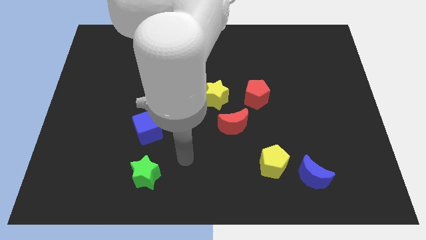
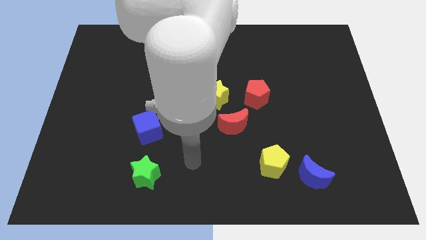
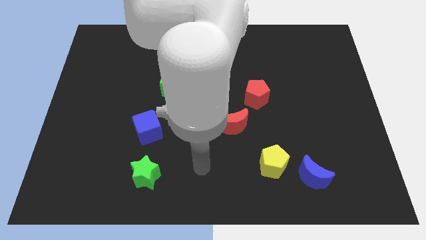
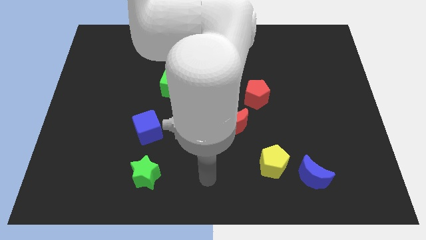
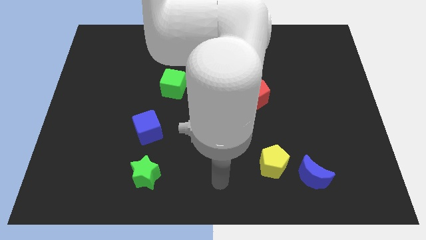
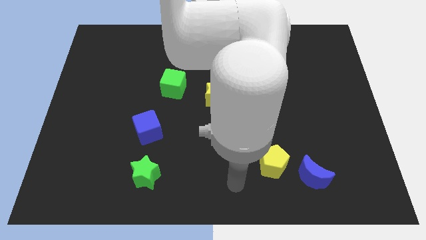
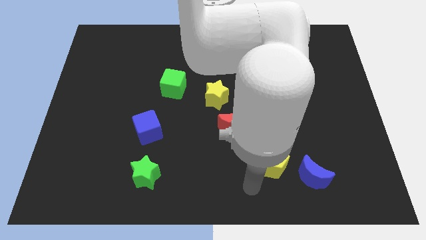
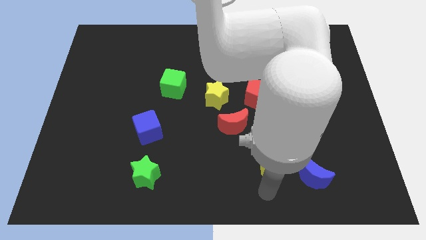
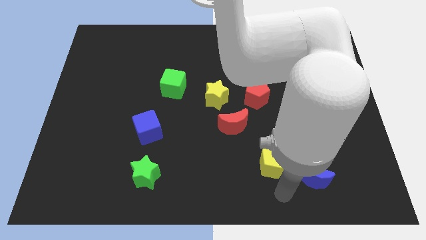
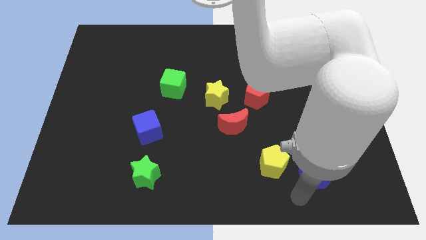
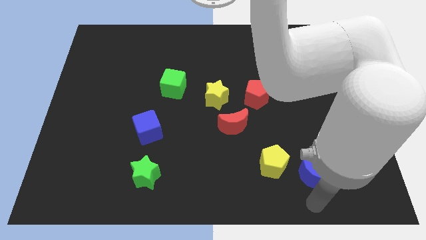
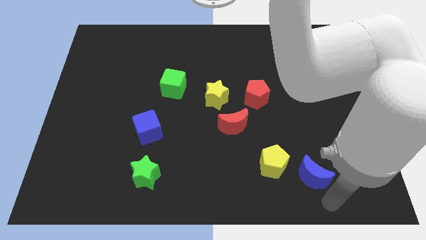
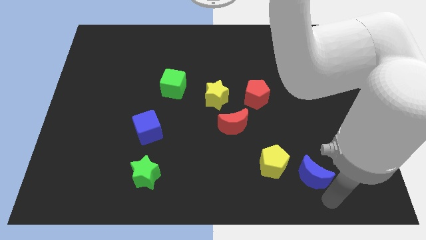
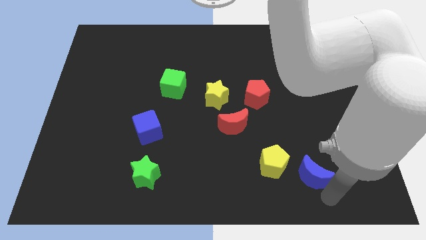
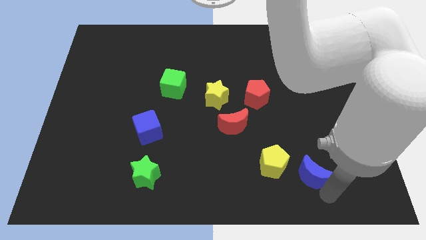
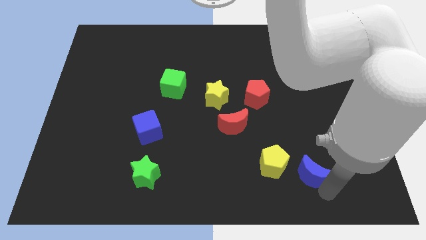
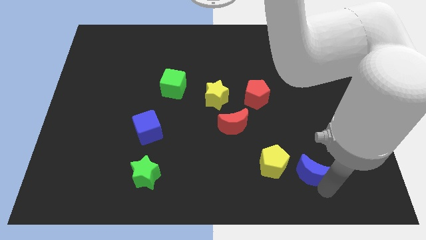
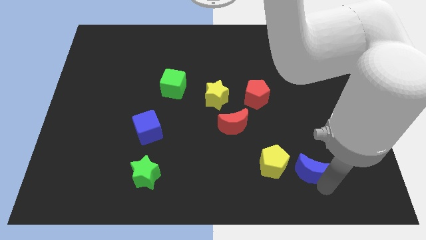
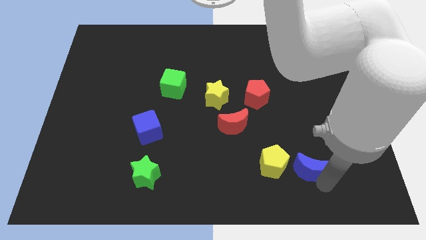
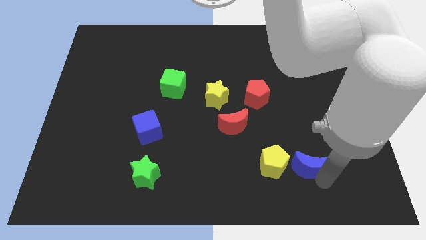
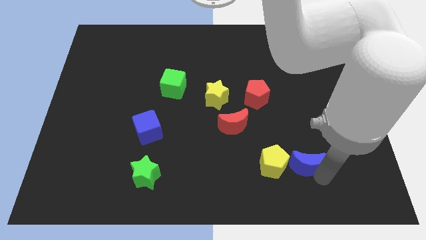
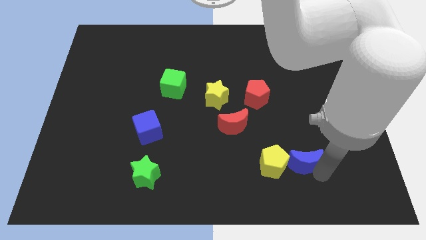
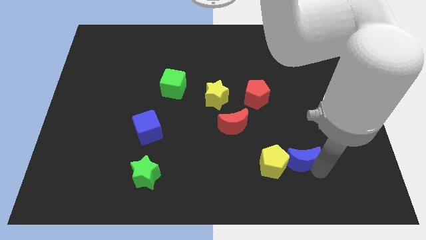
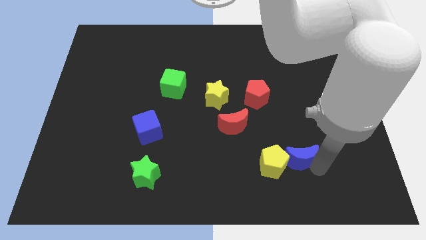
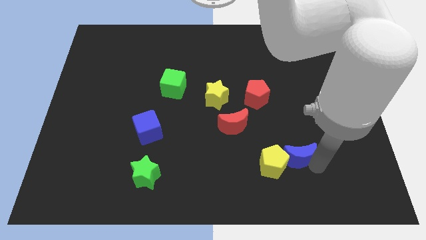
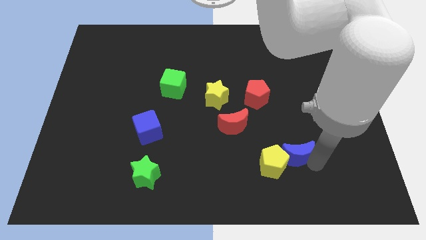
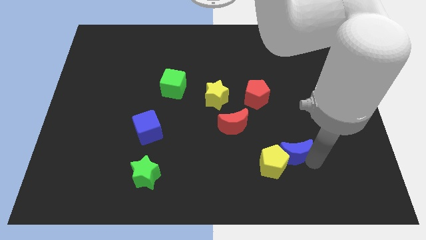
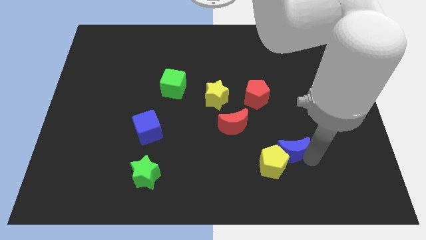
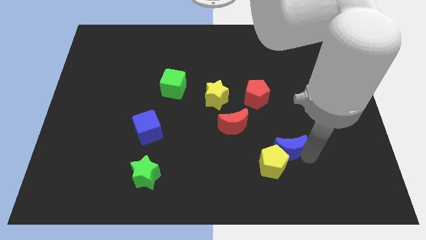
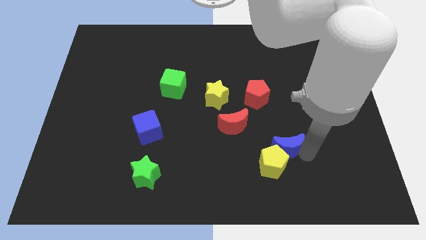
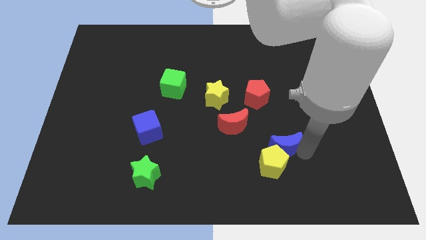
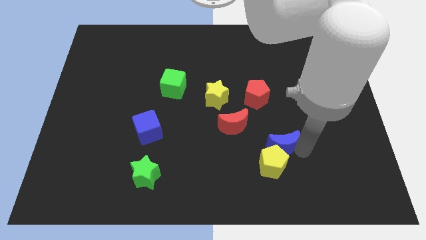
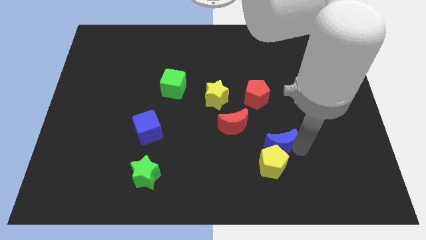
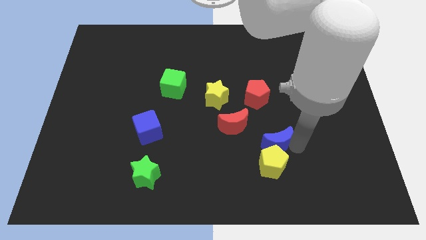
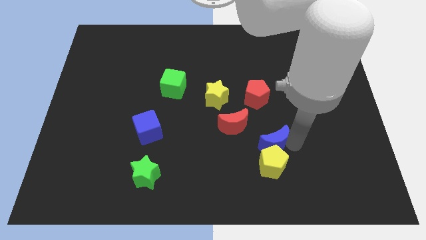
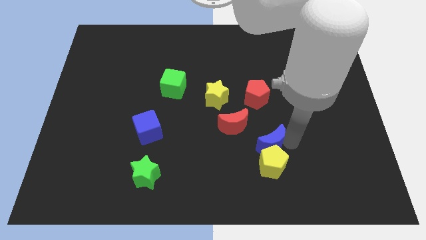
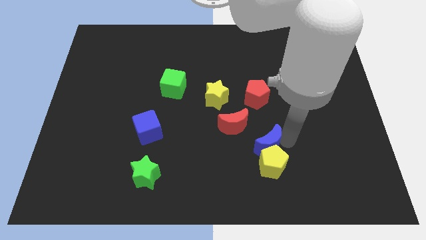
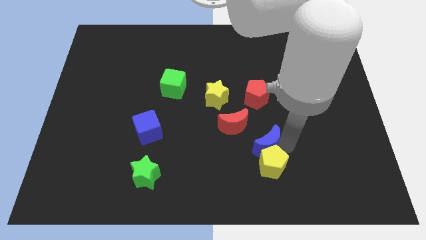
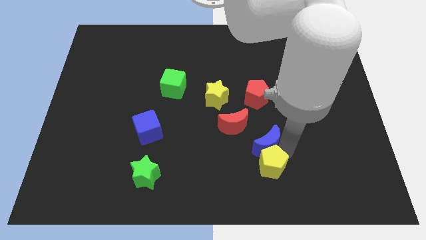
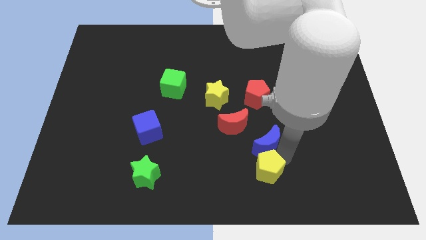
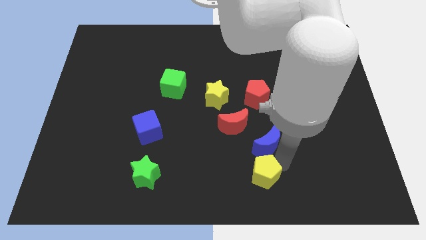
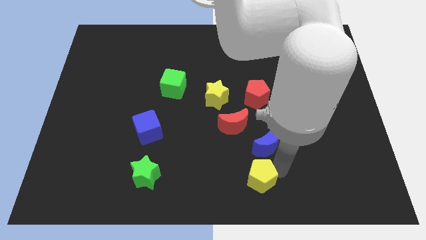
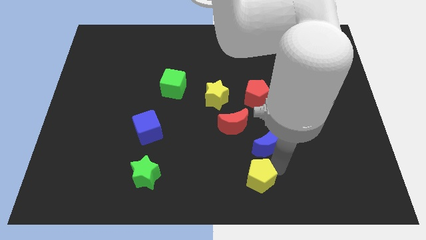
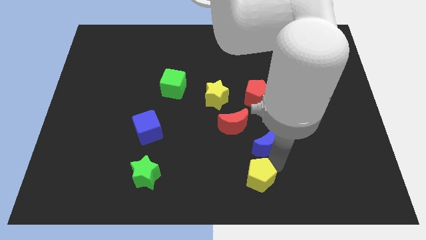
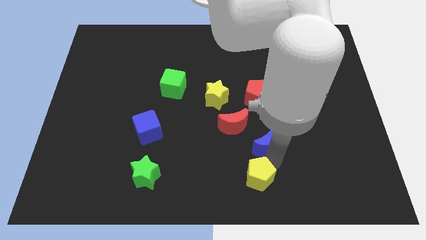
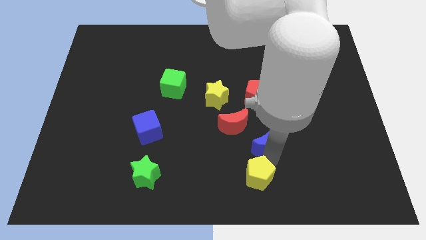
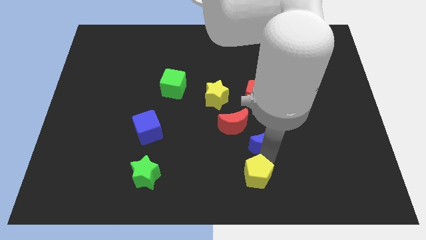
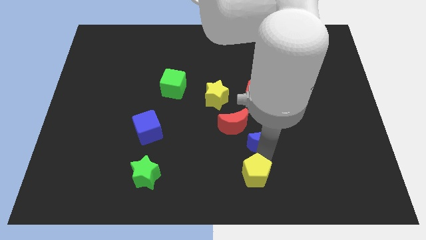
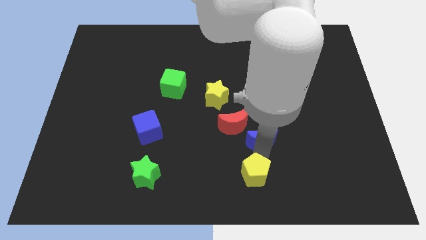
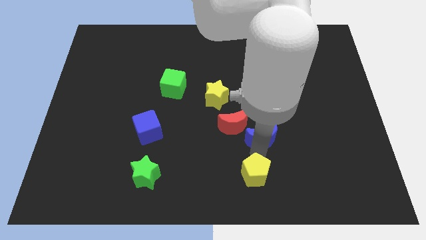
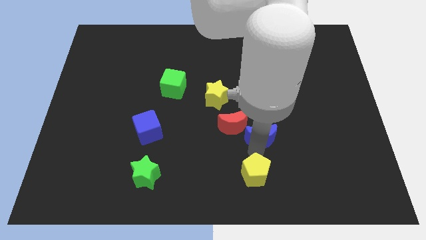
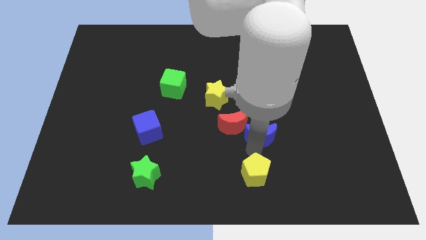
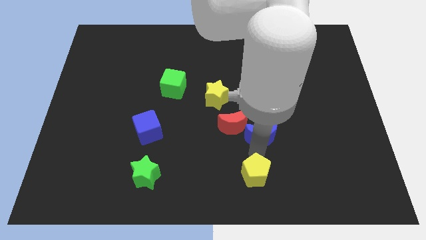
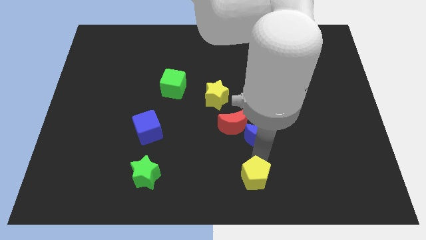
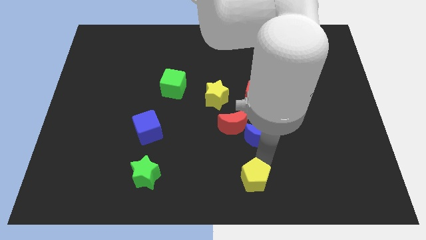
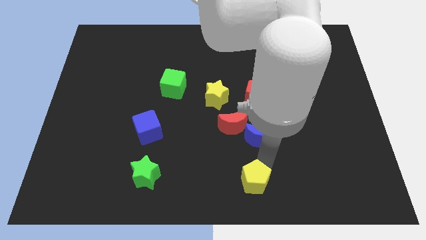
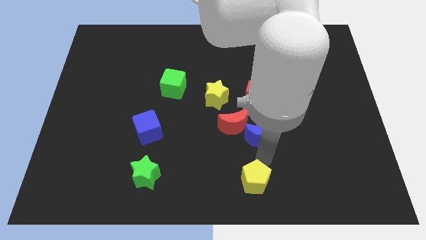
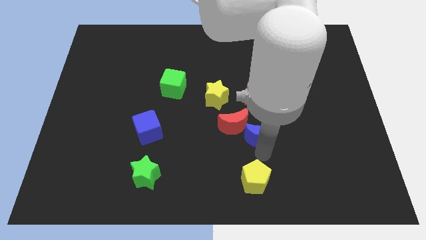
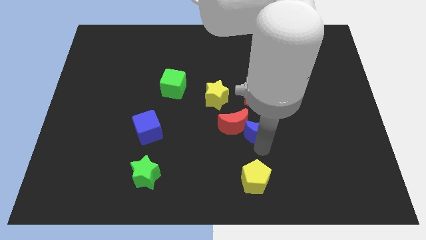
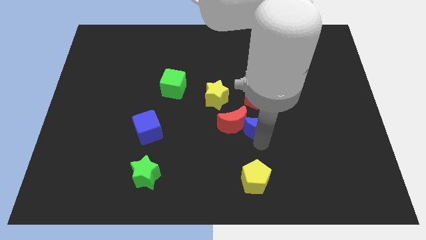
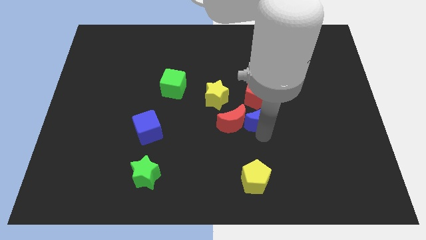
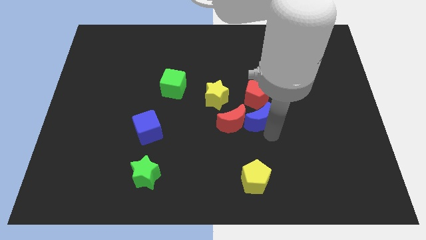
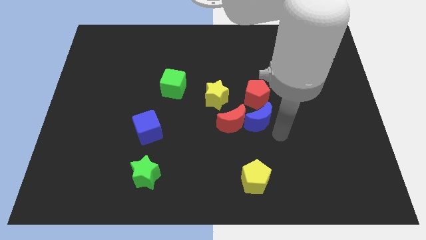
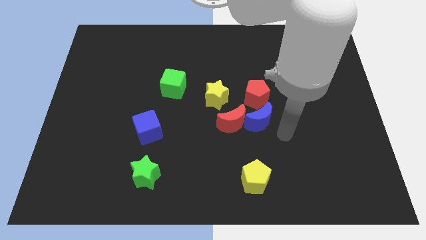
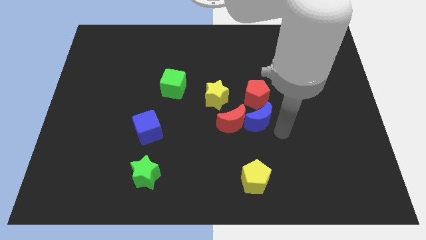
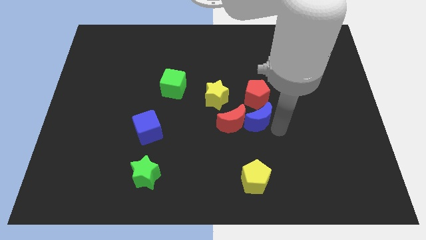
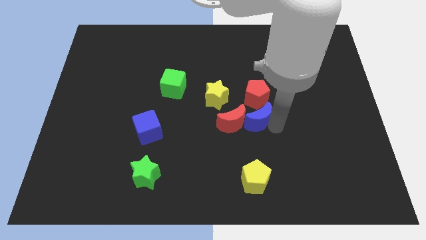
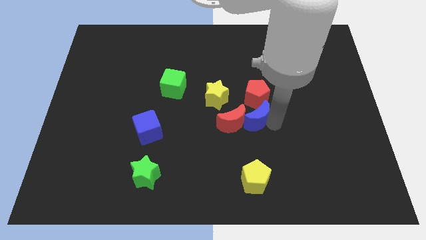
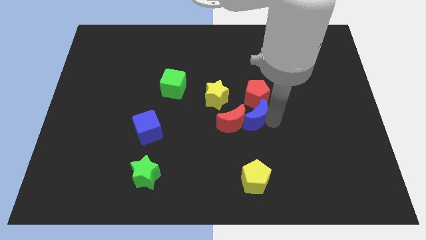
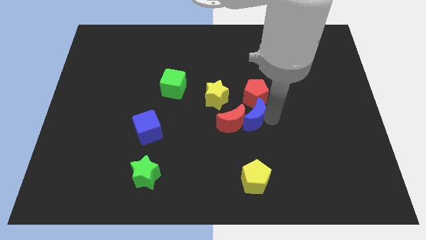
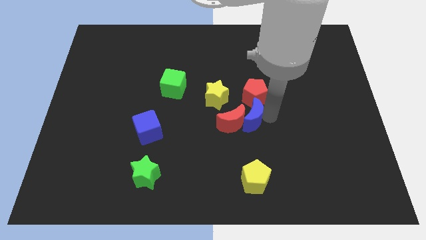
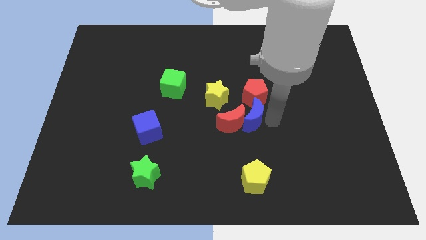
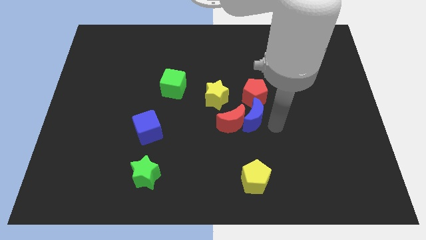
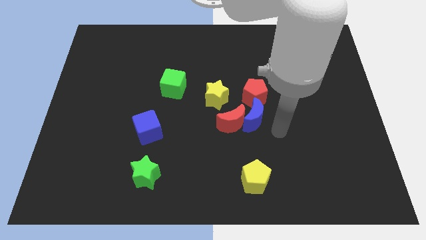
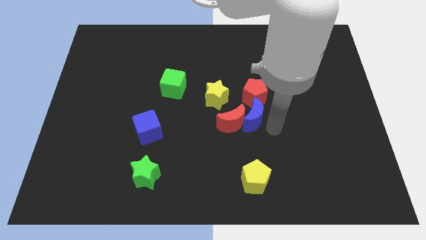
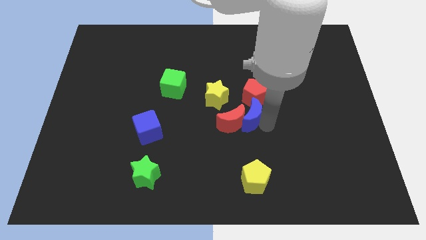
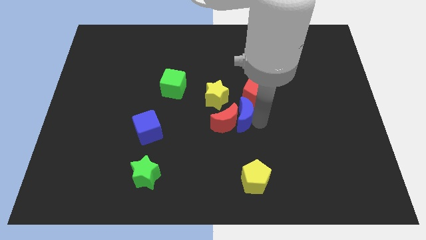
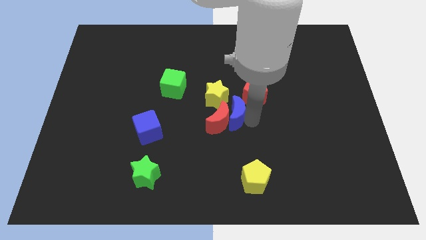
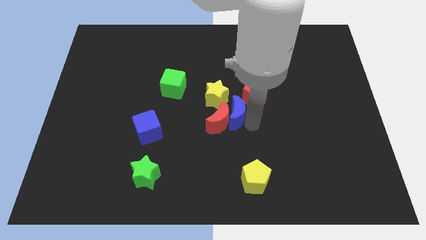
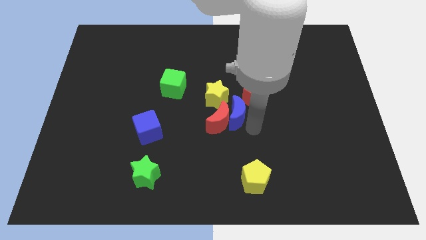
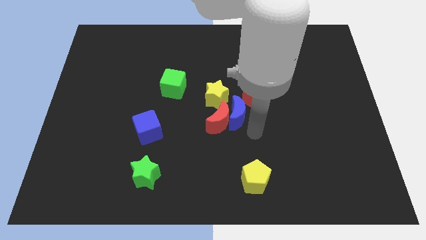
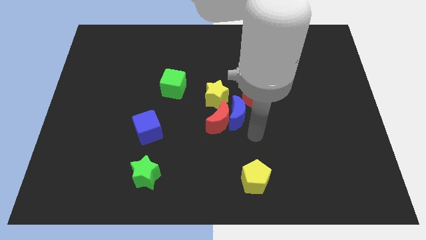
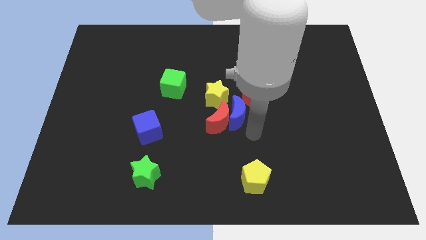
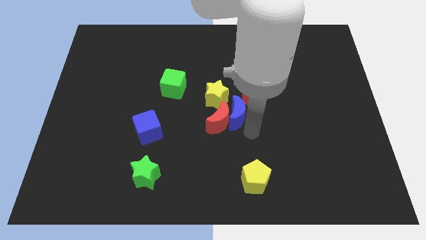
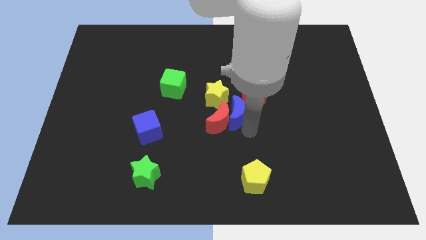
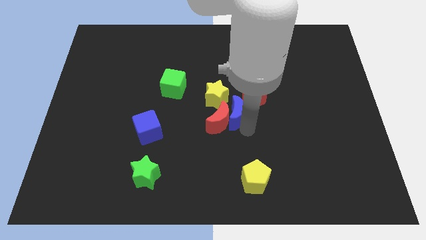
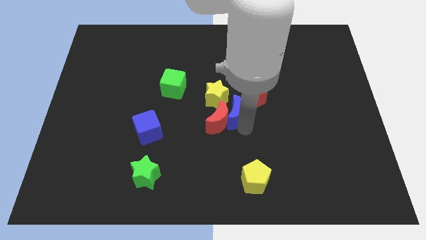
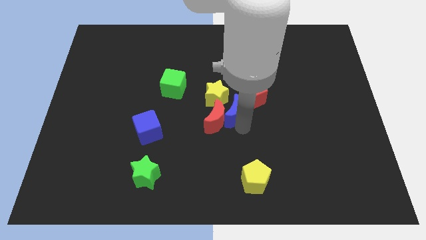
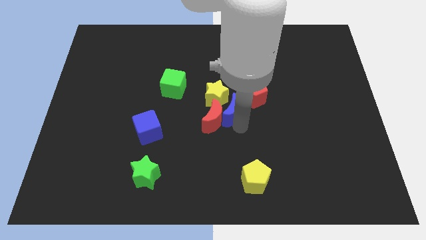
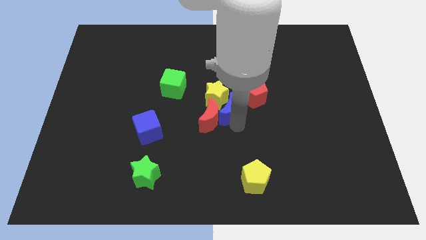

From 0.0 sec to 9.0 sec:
push the blue moon close to the yellow star
